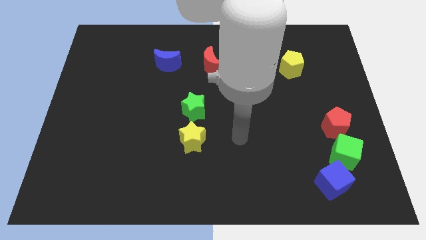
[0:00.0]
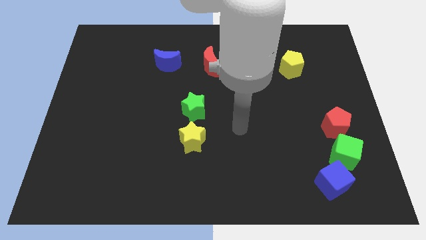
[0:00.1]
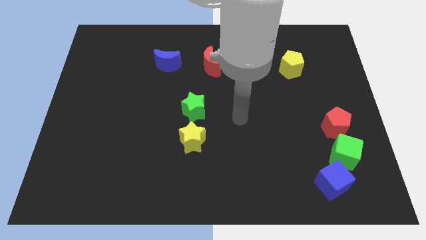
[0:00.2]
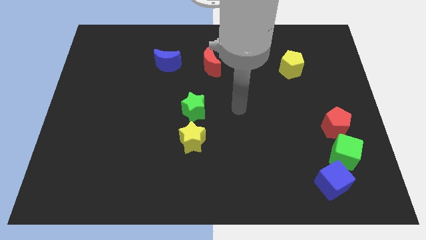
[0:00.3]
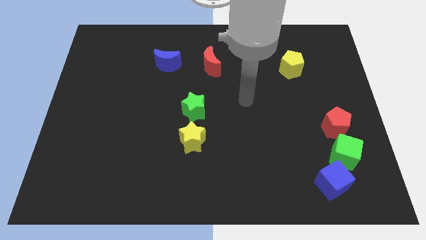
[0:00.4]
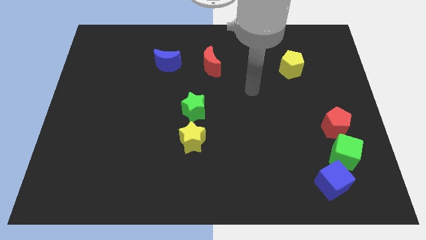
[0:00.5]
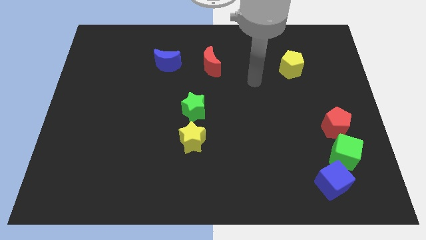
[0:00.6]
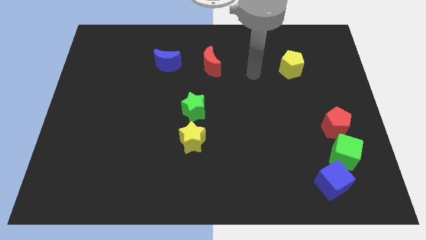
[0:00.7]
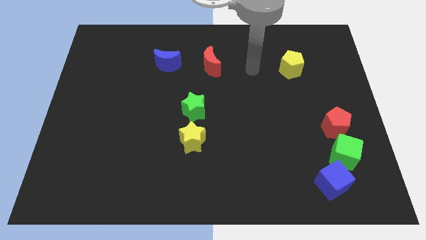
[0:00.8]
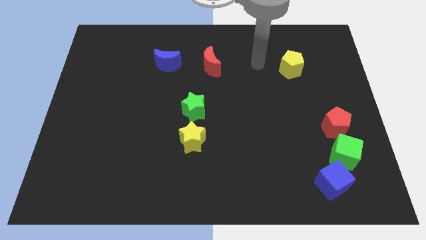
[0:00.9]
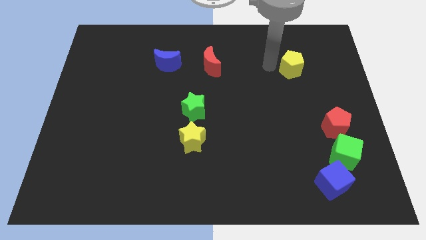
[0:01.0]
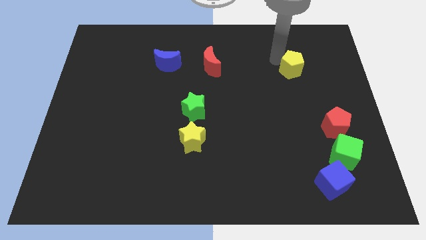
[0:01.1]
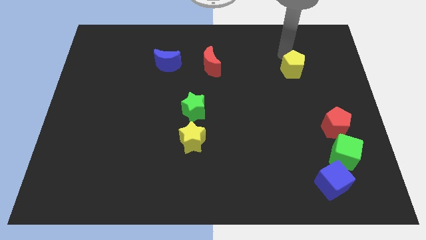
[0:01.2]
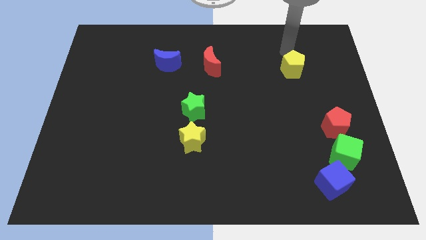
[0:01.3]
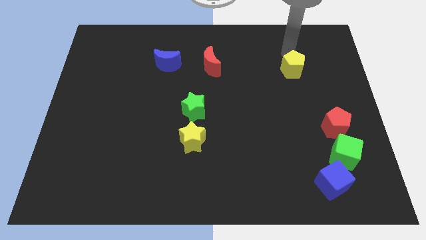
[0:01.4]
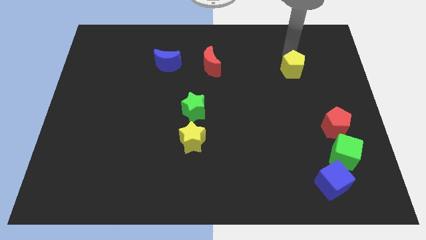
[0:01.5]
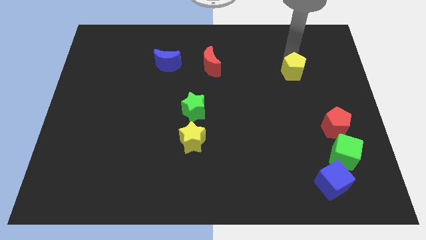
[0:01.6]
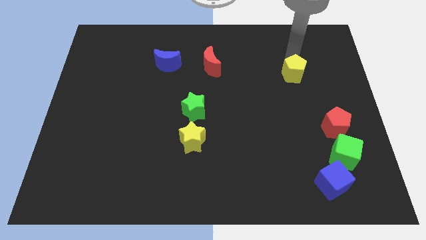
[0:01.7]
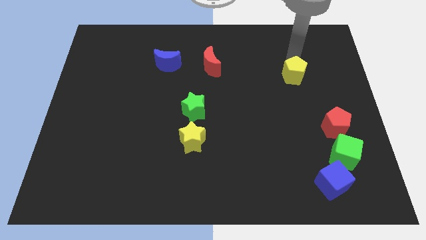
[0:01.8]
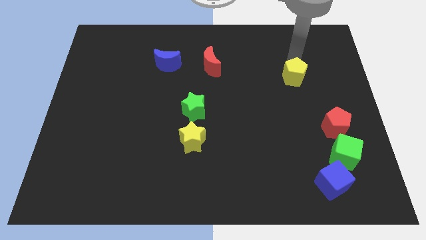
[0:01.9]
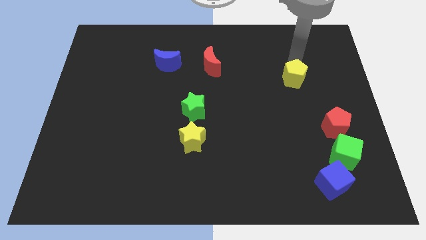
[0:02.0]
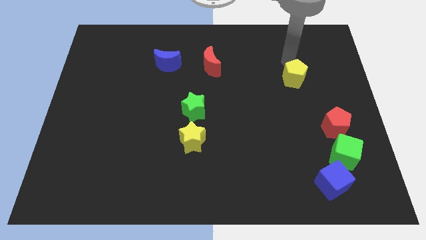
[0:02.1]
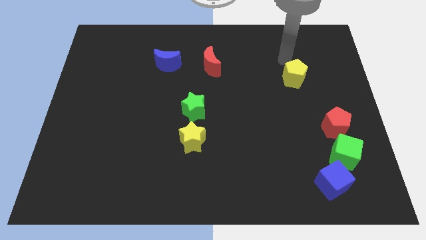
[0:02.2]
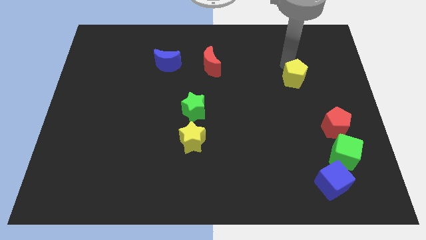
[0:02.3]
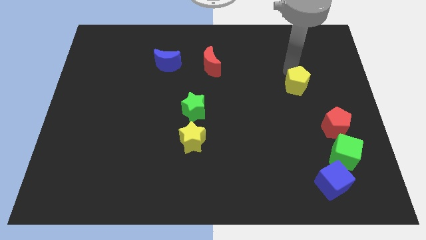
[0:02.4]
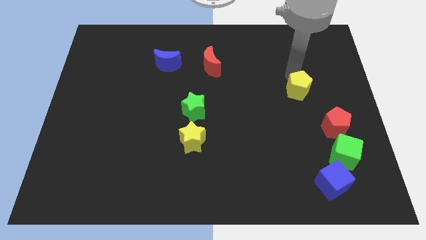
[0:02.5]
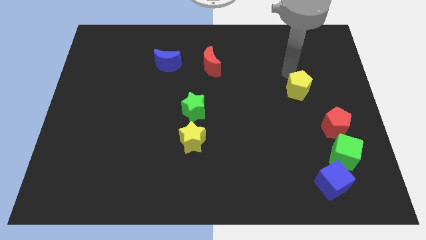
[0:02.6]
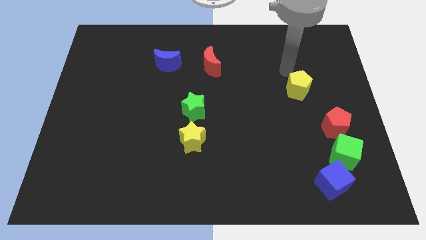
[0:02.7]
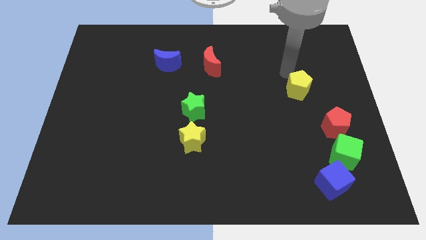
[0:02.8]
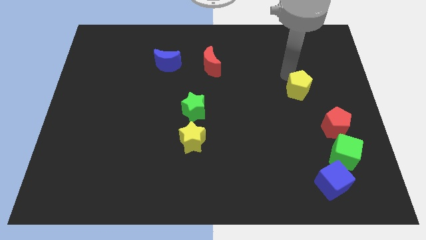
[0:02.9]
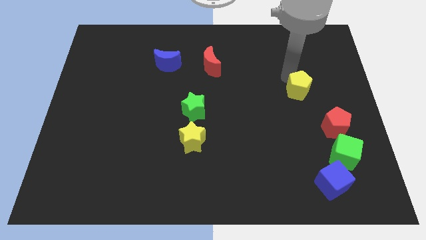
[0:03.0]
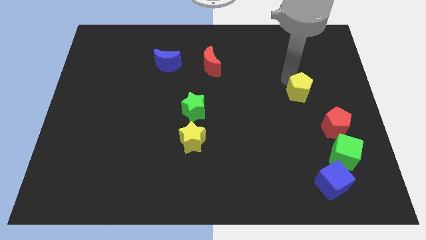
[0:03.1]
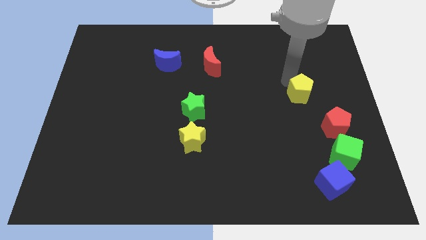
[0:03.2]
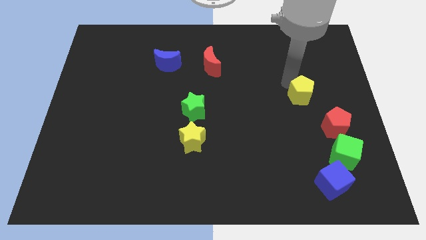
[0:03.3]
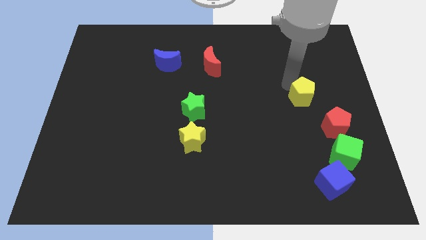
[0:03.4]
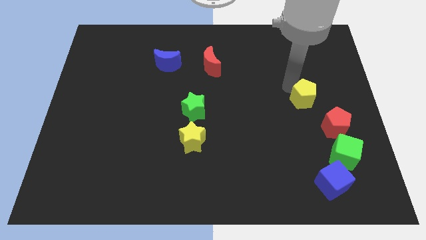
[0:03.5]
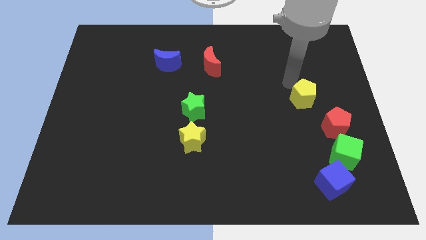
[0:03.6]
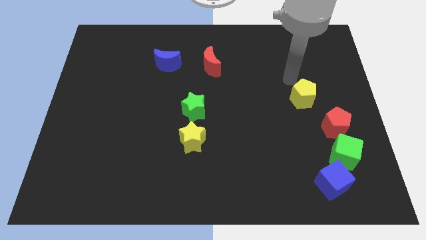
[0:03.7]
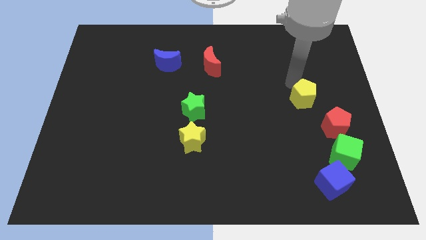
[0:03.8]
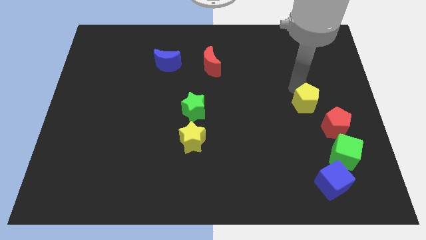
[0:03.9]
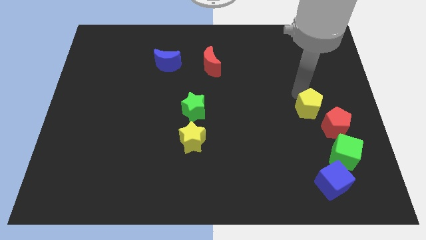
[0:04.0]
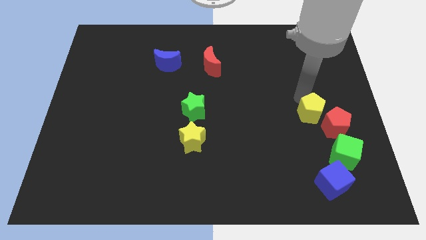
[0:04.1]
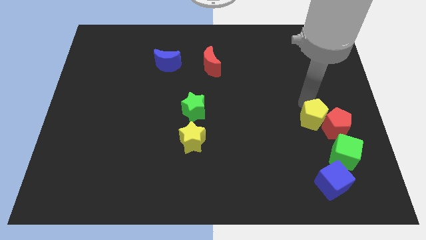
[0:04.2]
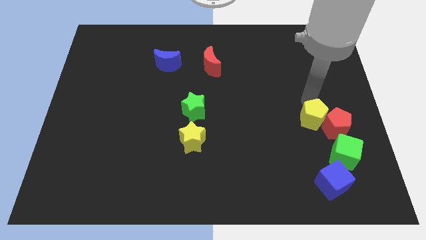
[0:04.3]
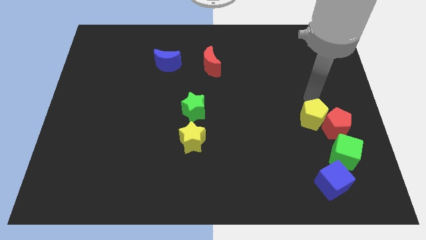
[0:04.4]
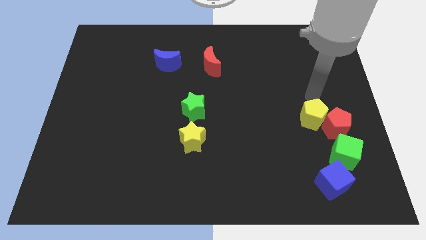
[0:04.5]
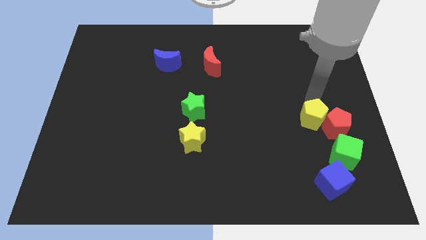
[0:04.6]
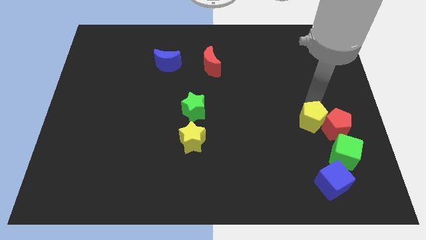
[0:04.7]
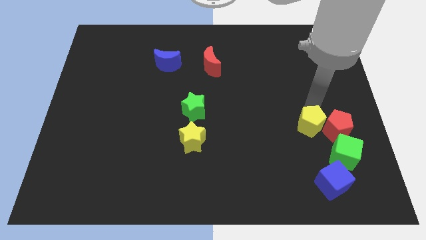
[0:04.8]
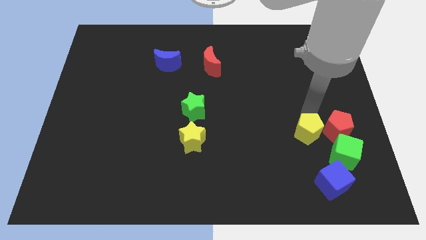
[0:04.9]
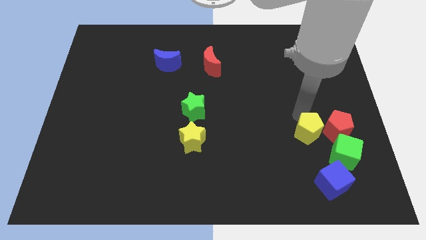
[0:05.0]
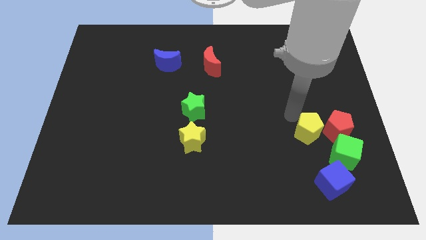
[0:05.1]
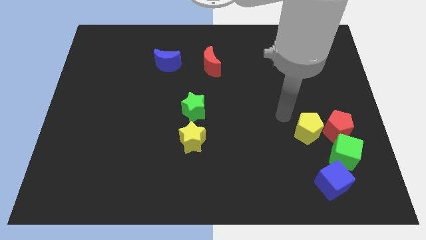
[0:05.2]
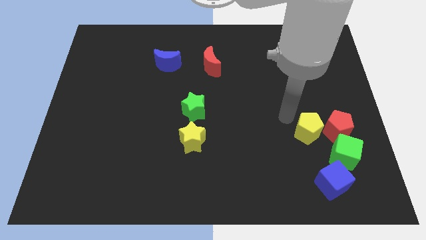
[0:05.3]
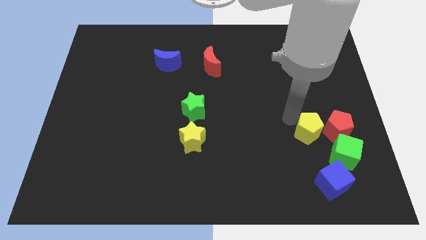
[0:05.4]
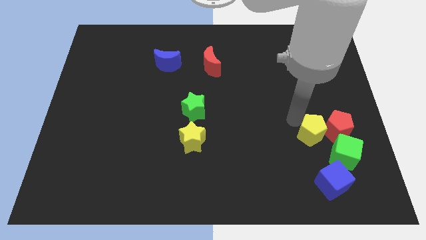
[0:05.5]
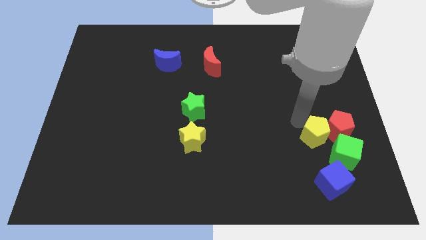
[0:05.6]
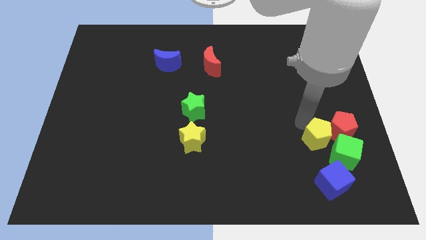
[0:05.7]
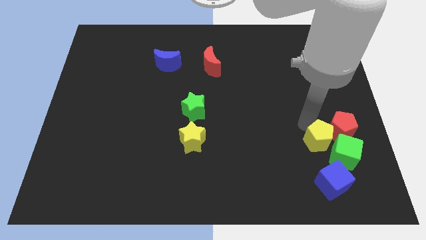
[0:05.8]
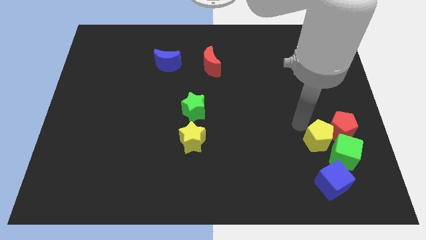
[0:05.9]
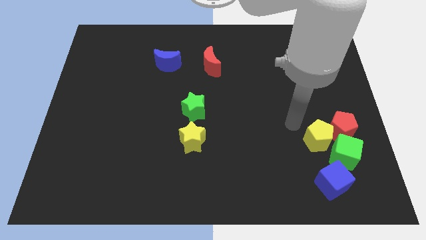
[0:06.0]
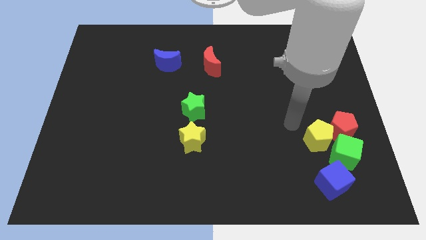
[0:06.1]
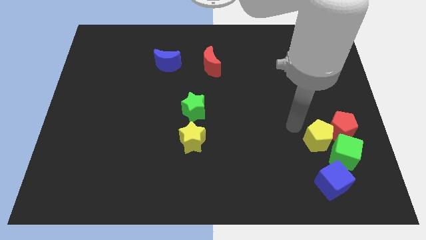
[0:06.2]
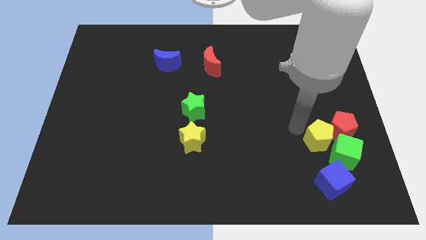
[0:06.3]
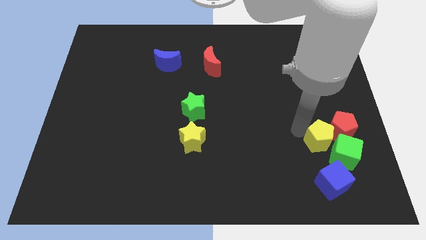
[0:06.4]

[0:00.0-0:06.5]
move the yellow pentagon to the green cube
